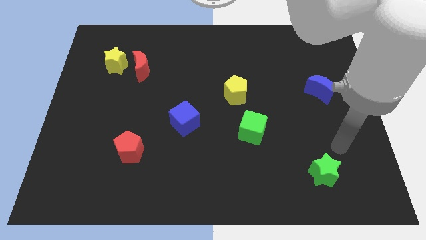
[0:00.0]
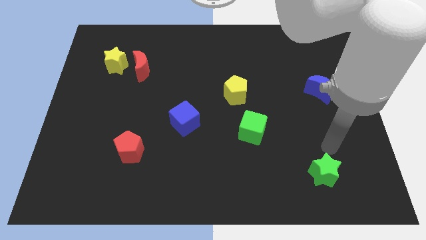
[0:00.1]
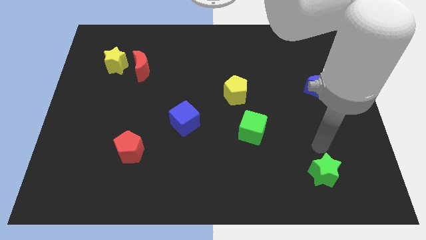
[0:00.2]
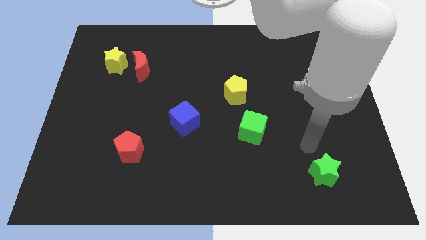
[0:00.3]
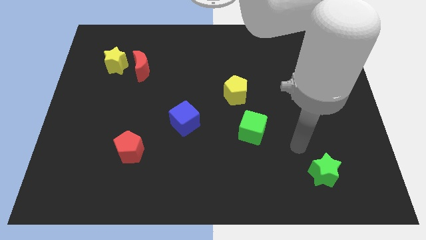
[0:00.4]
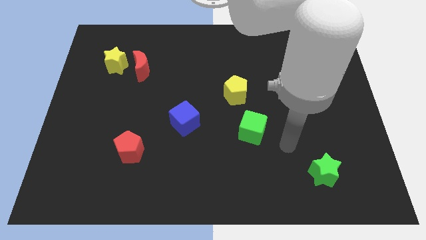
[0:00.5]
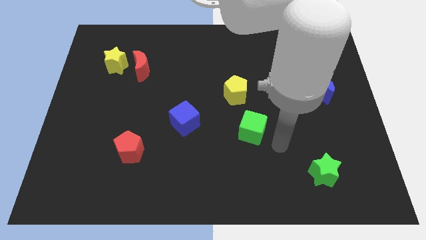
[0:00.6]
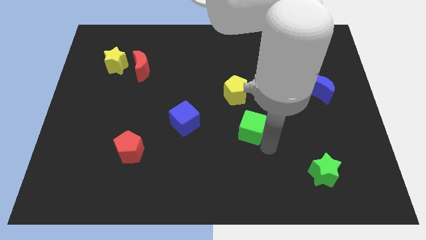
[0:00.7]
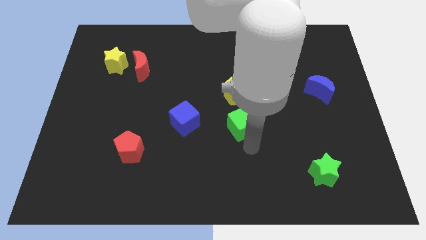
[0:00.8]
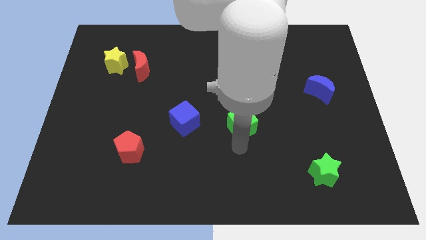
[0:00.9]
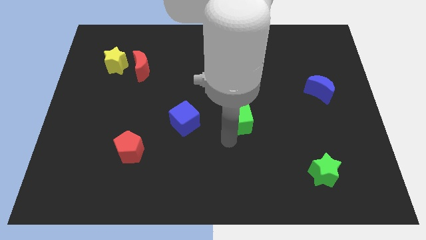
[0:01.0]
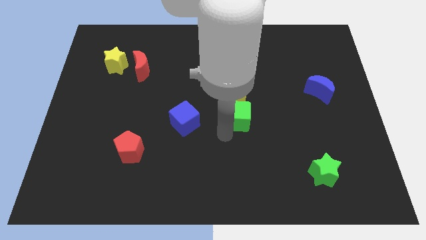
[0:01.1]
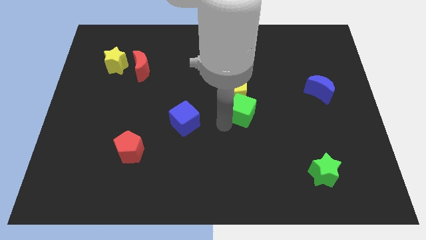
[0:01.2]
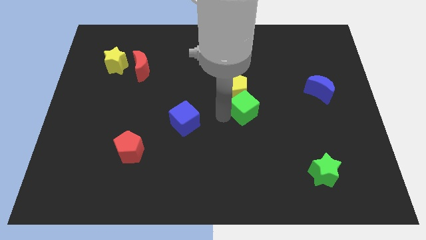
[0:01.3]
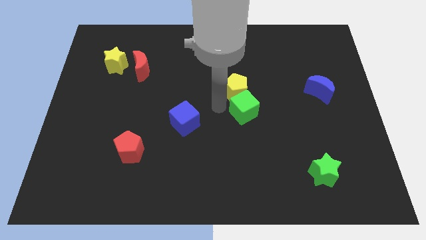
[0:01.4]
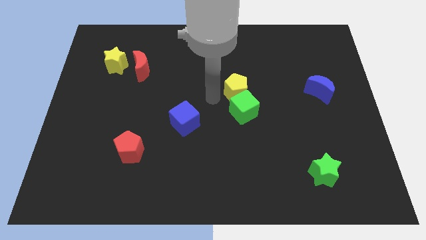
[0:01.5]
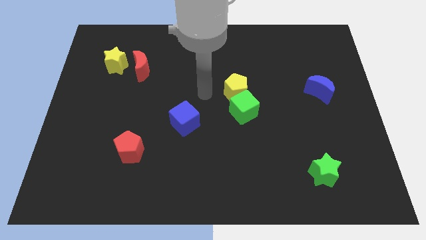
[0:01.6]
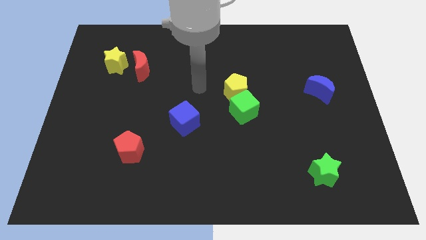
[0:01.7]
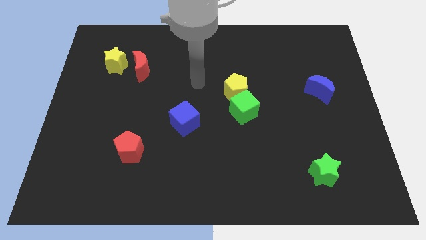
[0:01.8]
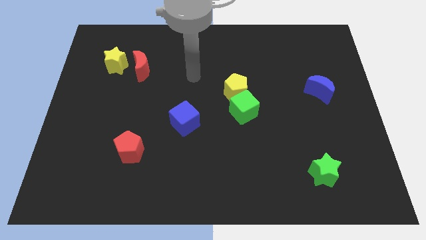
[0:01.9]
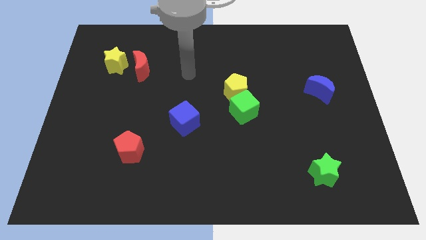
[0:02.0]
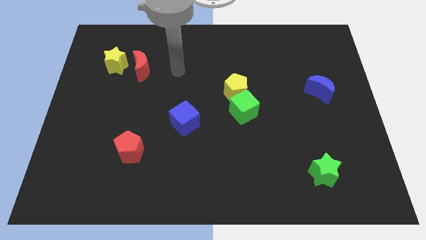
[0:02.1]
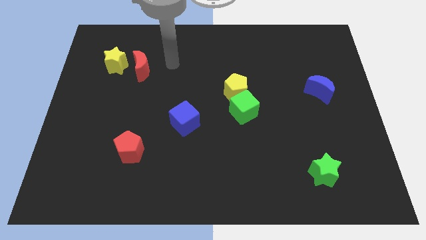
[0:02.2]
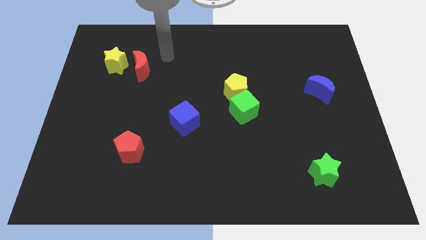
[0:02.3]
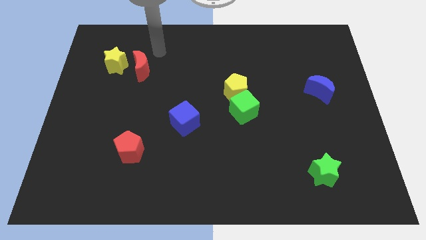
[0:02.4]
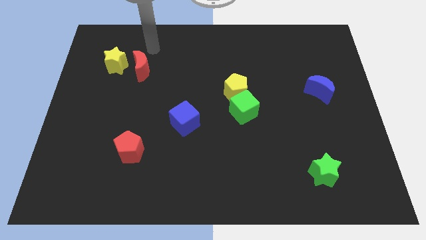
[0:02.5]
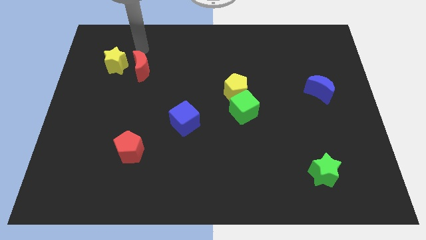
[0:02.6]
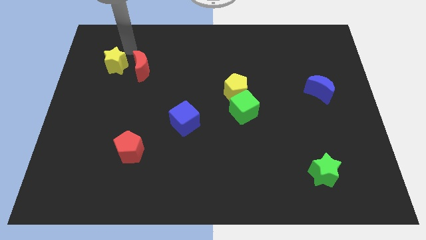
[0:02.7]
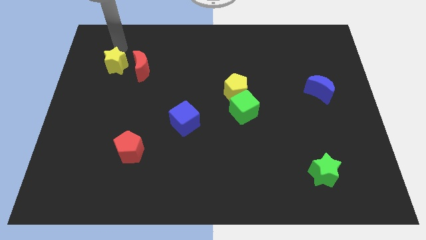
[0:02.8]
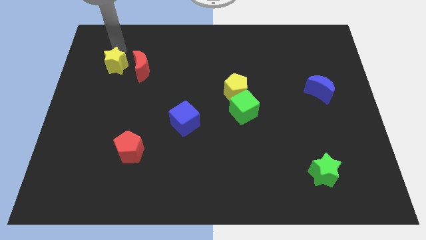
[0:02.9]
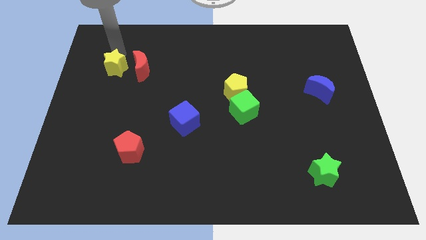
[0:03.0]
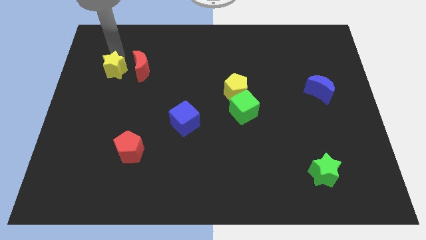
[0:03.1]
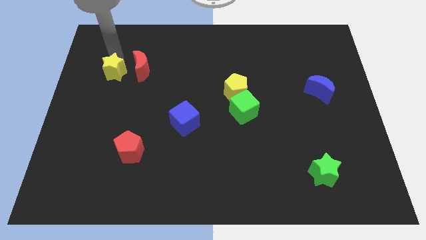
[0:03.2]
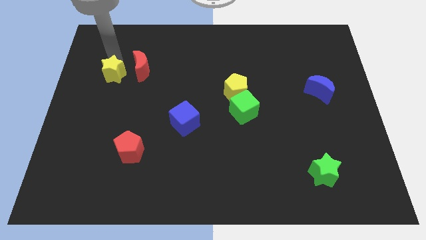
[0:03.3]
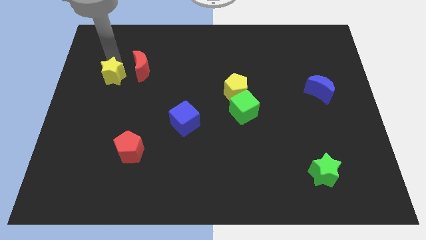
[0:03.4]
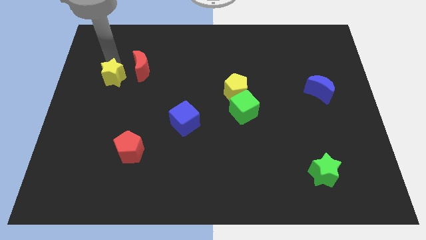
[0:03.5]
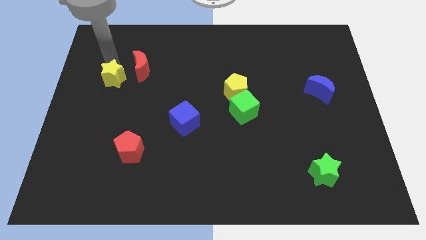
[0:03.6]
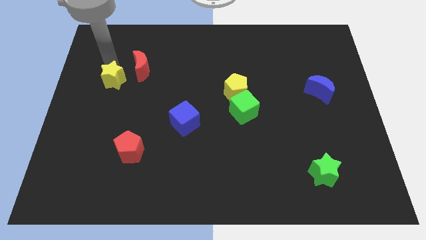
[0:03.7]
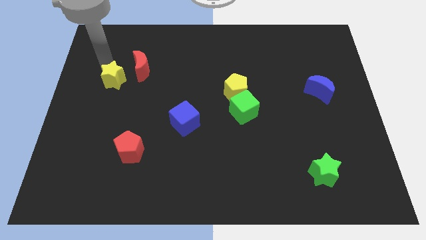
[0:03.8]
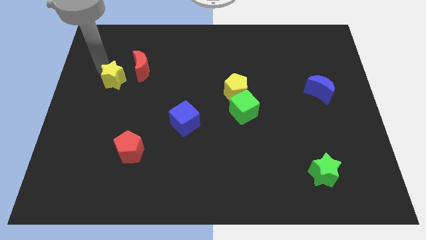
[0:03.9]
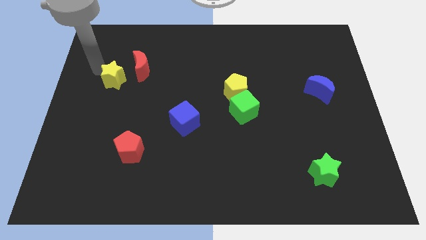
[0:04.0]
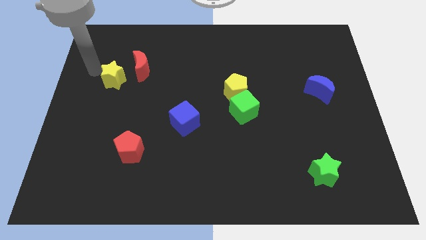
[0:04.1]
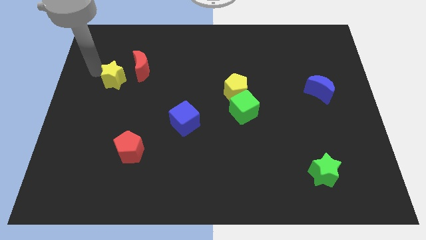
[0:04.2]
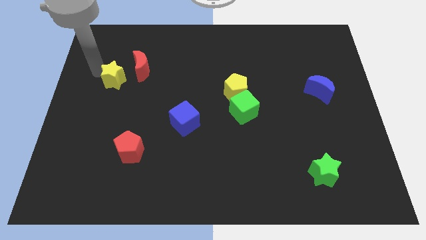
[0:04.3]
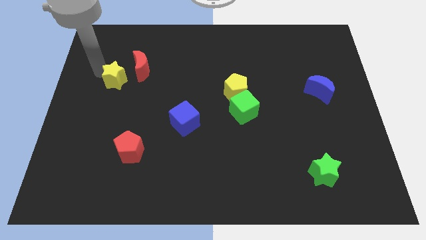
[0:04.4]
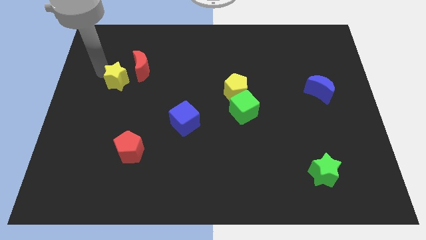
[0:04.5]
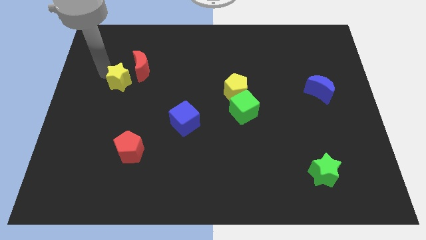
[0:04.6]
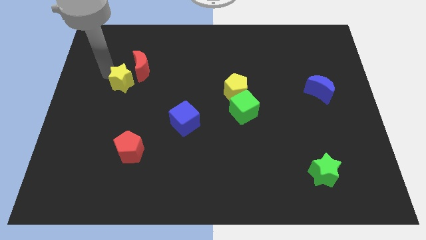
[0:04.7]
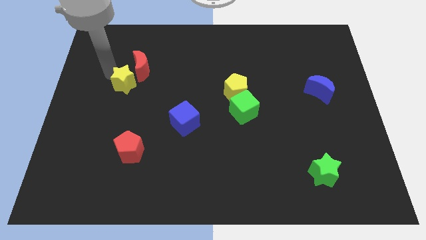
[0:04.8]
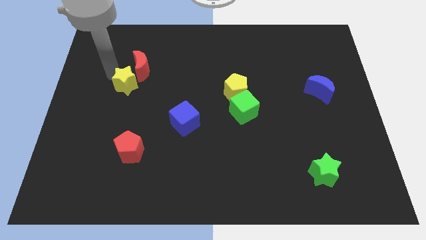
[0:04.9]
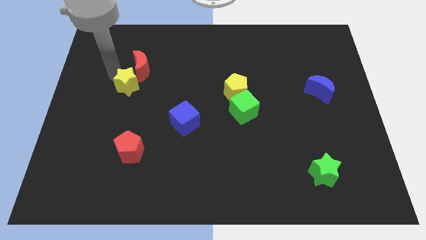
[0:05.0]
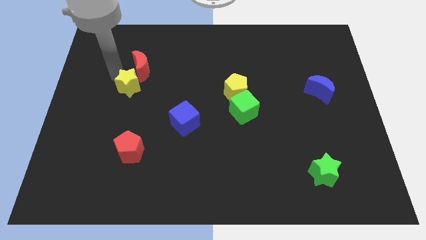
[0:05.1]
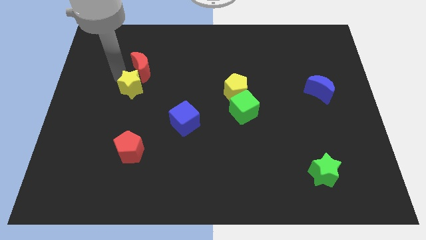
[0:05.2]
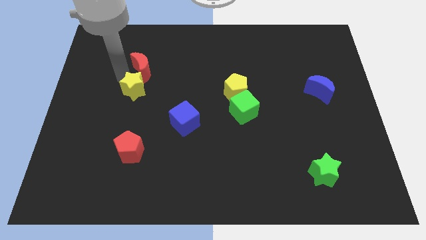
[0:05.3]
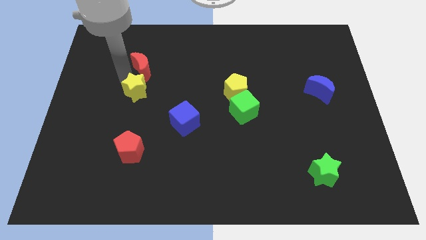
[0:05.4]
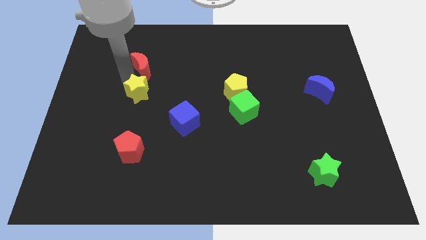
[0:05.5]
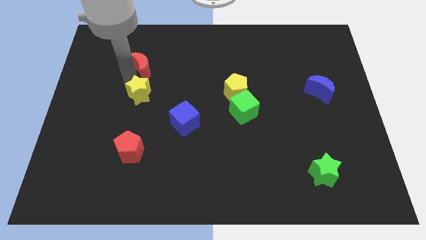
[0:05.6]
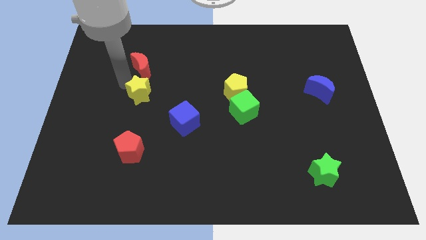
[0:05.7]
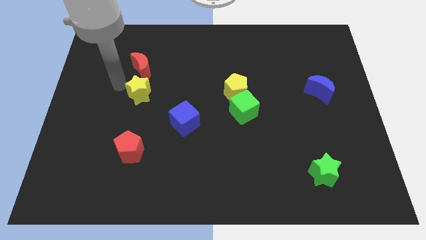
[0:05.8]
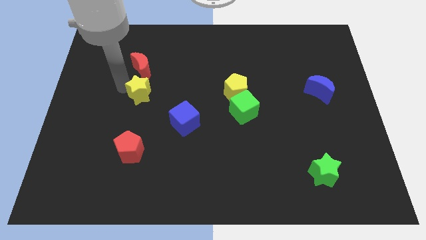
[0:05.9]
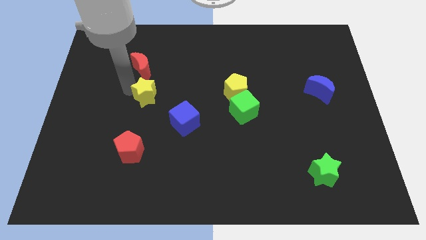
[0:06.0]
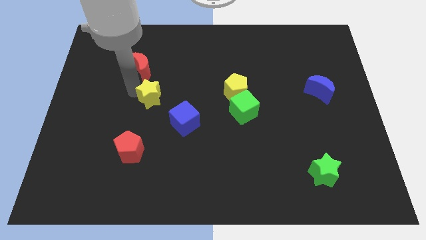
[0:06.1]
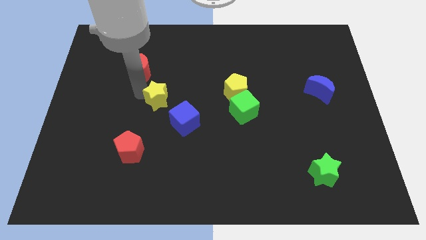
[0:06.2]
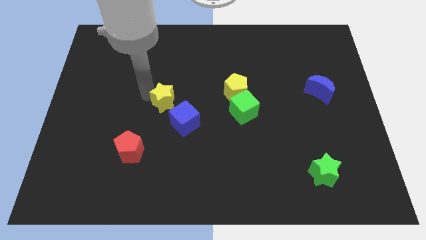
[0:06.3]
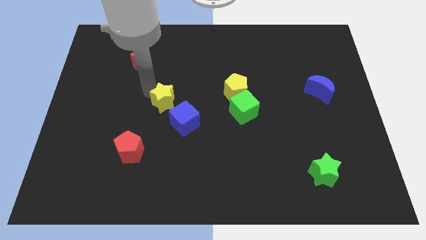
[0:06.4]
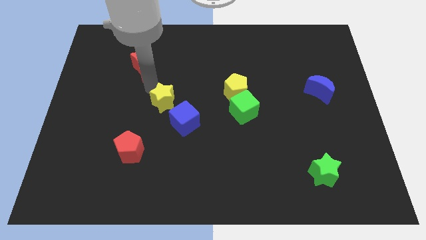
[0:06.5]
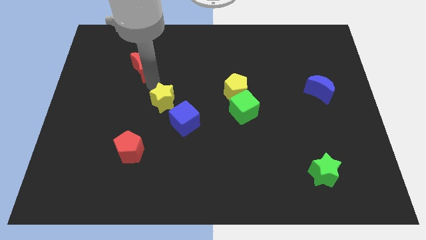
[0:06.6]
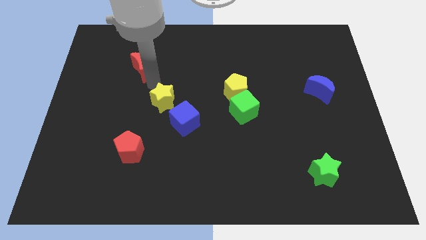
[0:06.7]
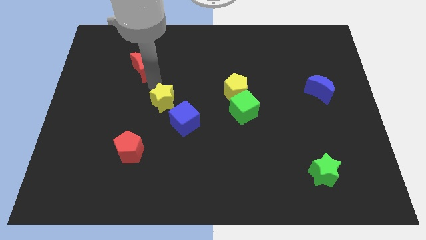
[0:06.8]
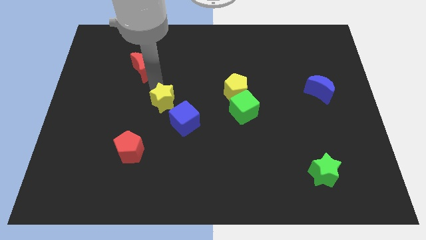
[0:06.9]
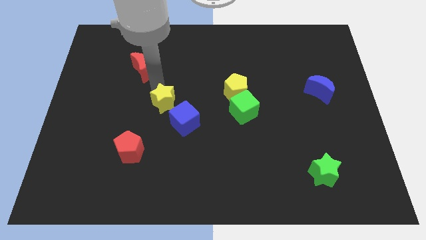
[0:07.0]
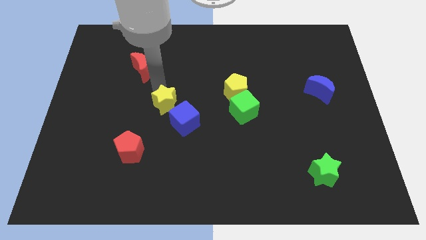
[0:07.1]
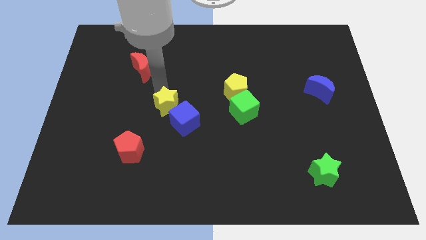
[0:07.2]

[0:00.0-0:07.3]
slide the yellow star to the blue cube

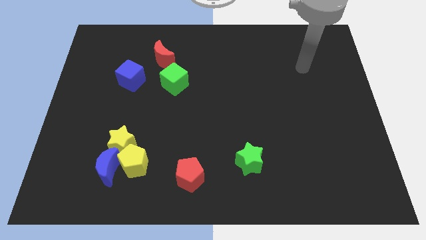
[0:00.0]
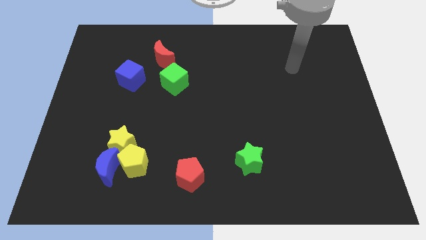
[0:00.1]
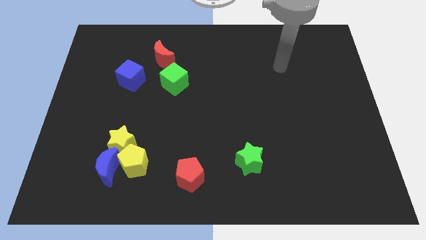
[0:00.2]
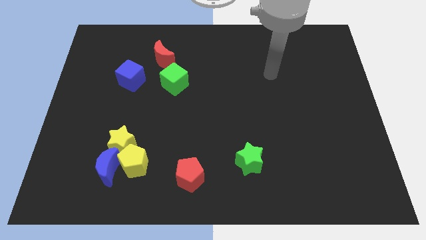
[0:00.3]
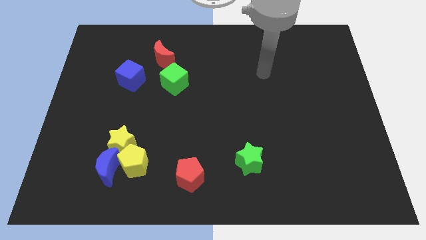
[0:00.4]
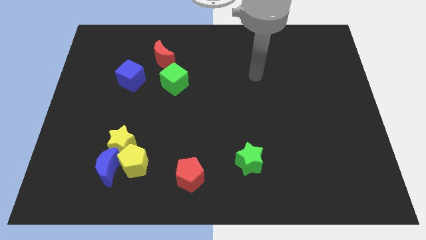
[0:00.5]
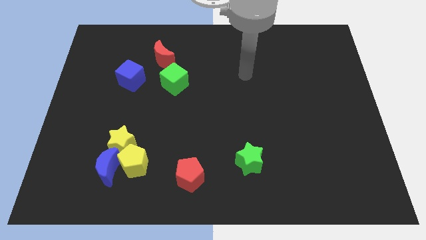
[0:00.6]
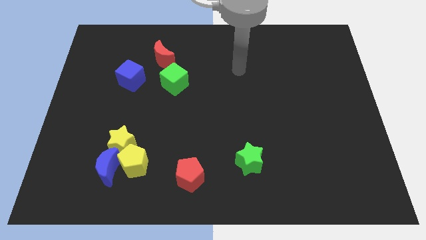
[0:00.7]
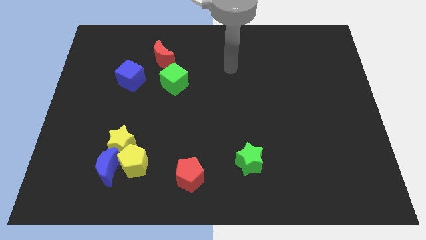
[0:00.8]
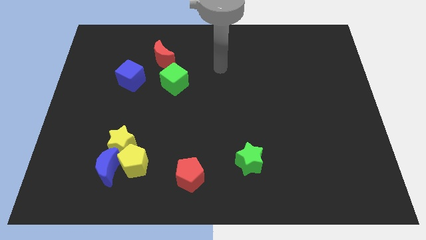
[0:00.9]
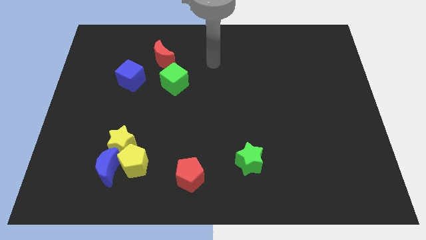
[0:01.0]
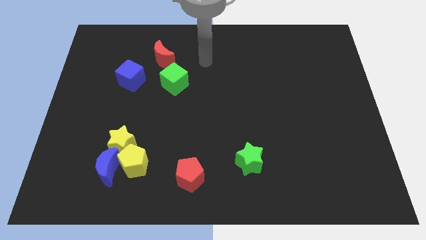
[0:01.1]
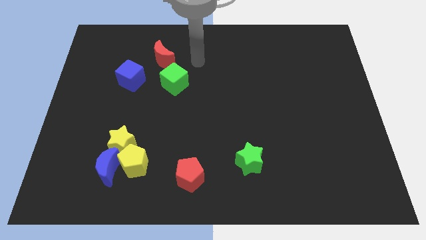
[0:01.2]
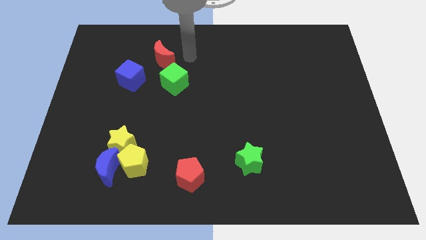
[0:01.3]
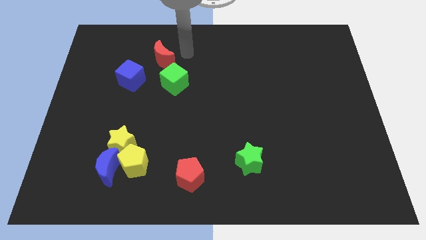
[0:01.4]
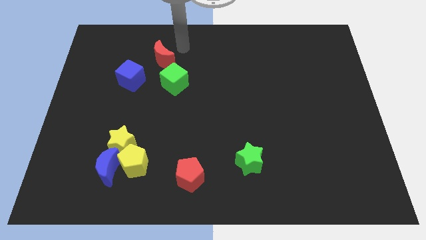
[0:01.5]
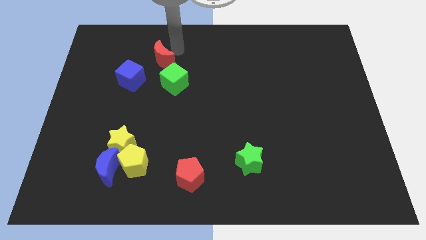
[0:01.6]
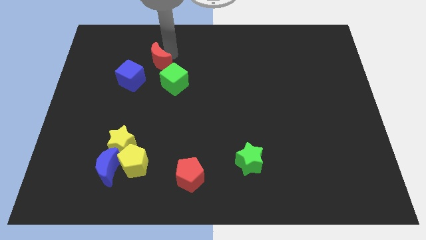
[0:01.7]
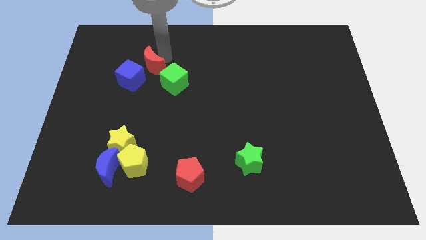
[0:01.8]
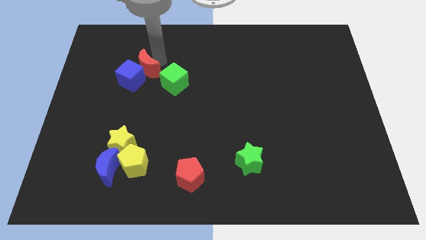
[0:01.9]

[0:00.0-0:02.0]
move the red moon towards the blue cube
